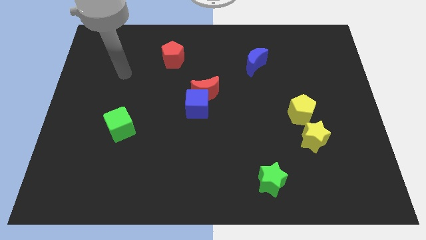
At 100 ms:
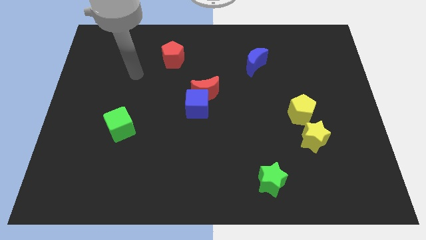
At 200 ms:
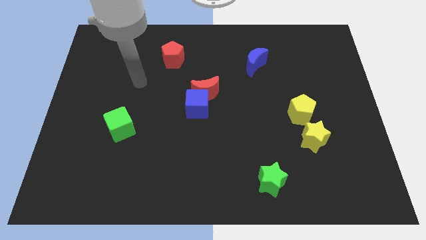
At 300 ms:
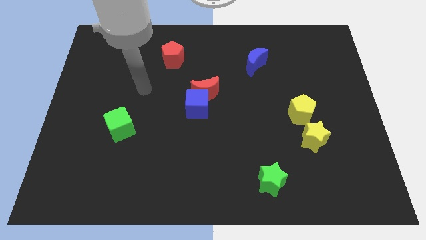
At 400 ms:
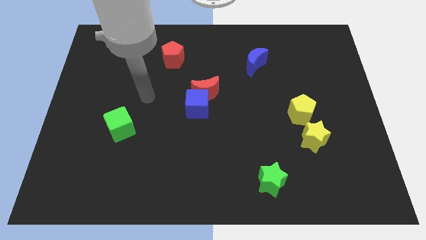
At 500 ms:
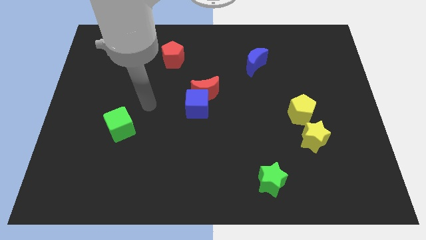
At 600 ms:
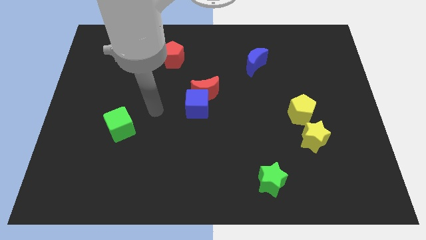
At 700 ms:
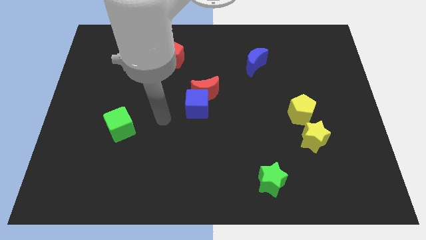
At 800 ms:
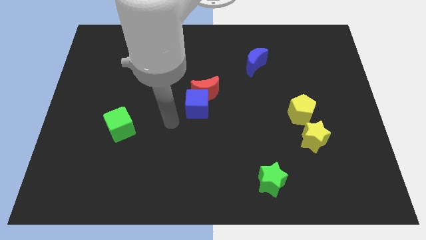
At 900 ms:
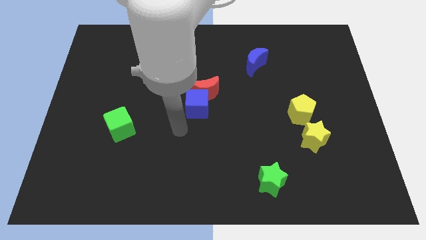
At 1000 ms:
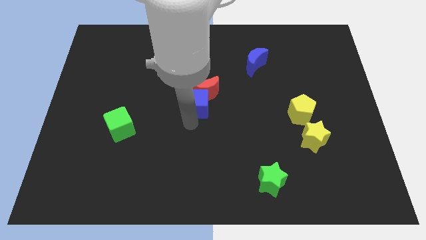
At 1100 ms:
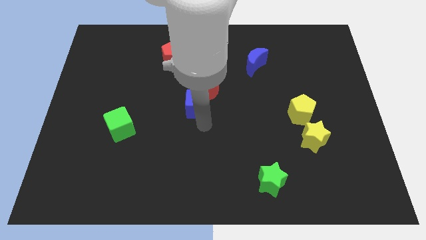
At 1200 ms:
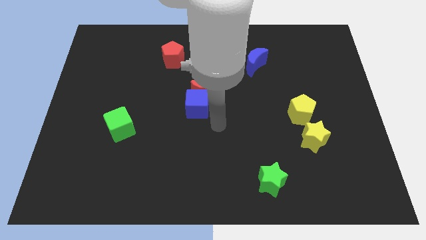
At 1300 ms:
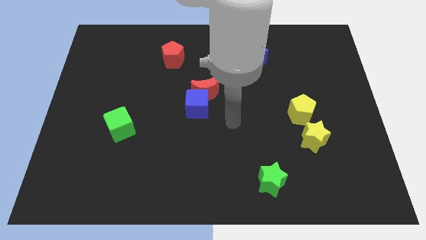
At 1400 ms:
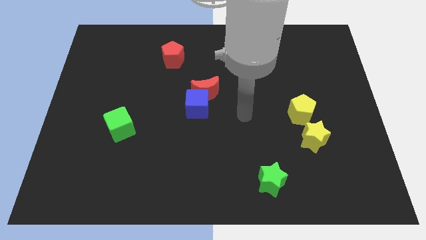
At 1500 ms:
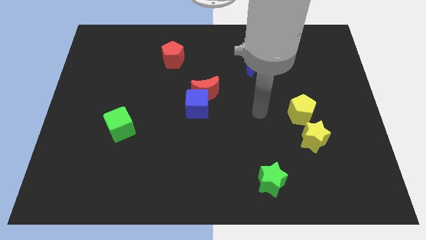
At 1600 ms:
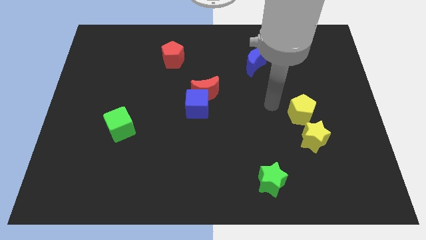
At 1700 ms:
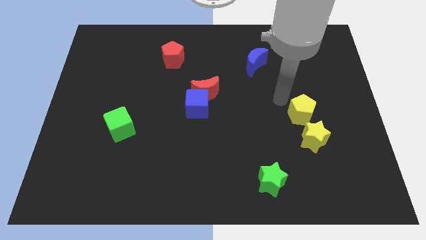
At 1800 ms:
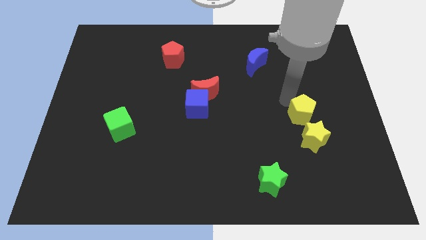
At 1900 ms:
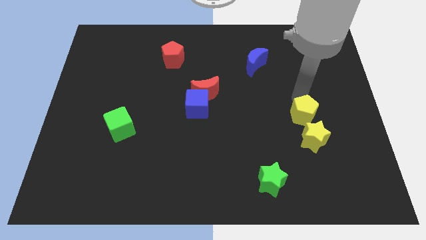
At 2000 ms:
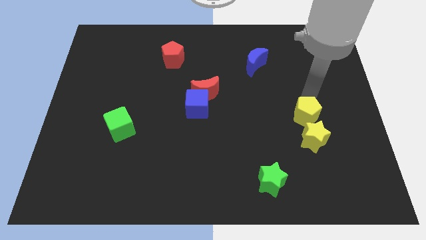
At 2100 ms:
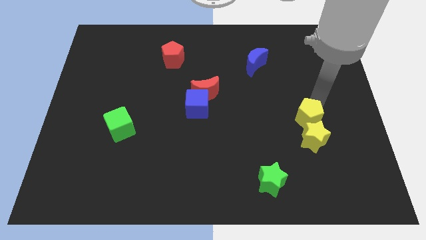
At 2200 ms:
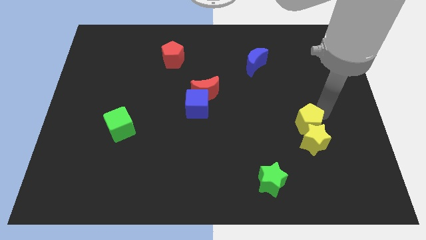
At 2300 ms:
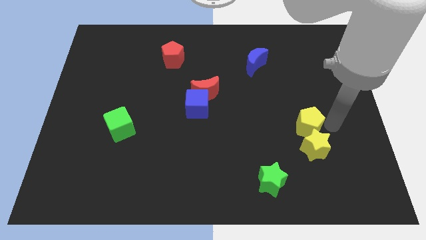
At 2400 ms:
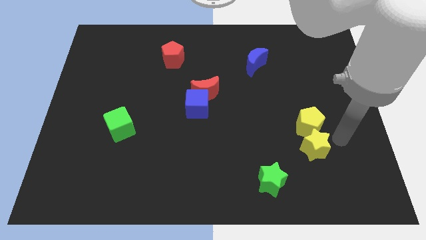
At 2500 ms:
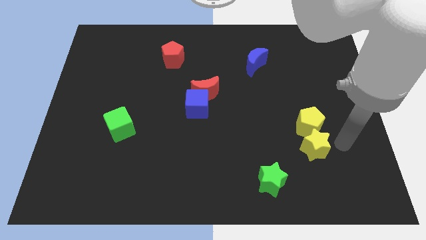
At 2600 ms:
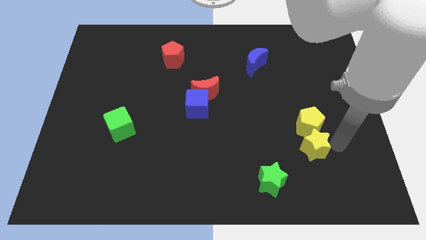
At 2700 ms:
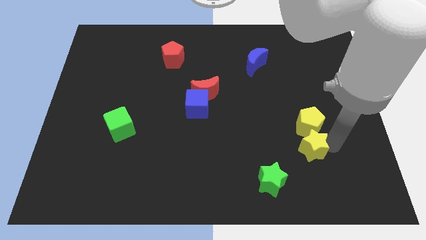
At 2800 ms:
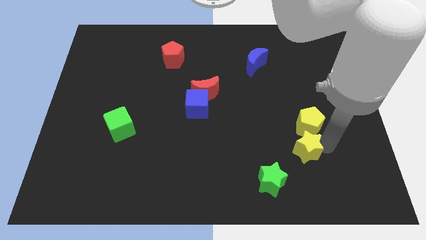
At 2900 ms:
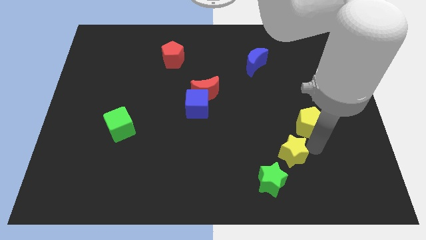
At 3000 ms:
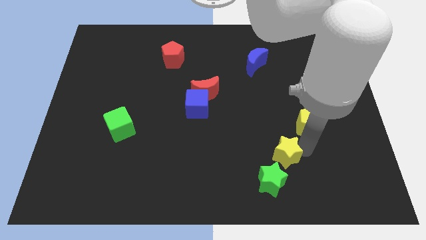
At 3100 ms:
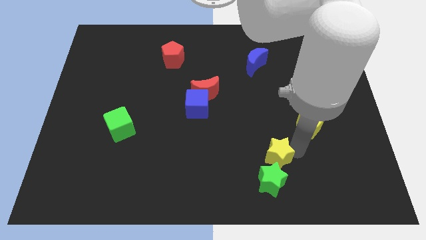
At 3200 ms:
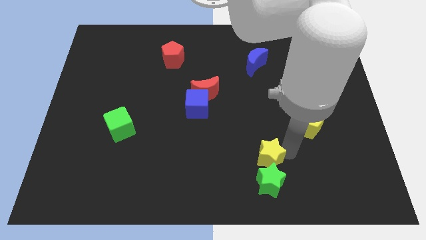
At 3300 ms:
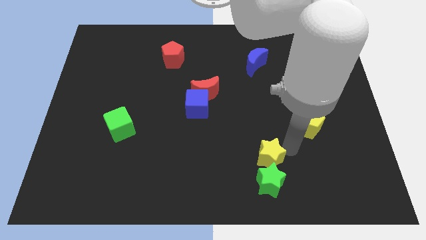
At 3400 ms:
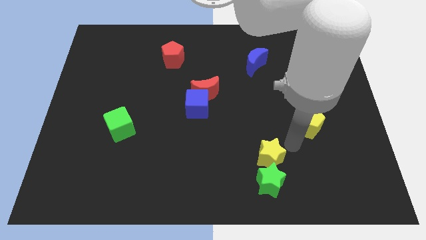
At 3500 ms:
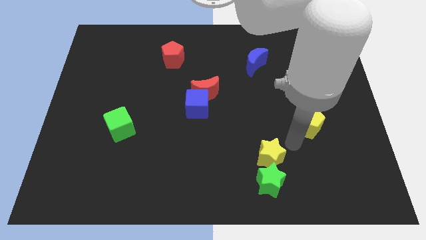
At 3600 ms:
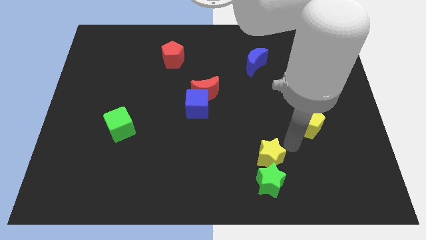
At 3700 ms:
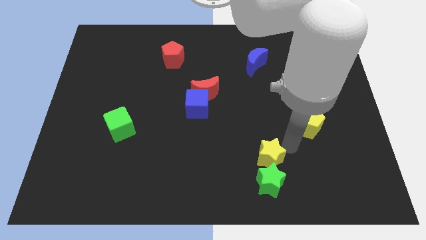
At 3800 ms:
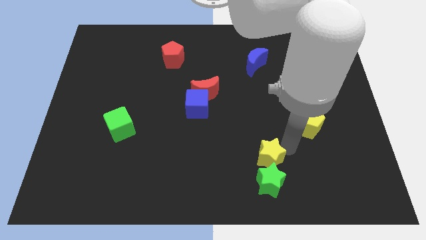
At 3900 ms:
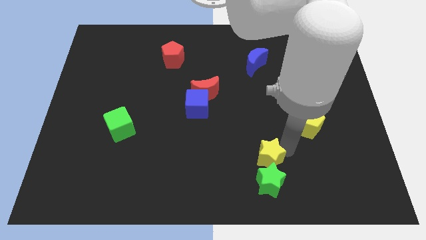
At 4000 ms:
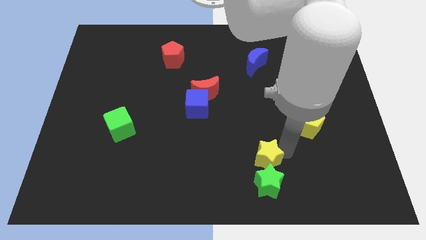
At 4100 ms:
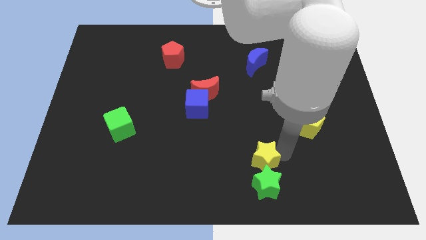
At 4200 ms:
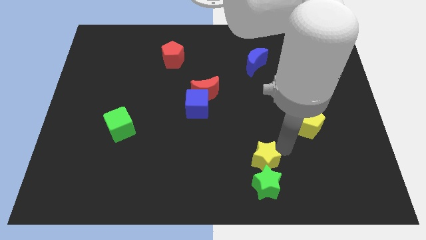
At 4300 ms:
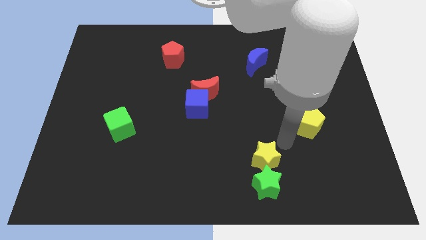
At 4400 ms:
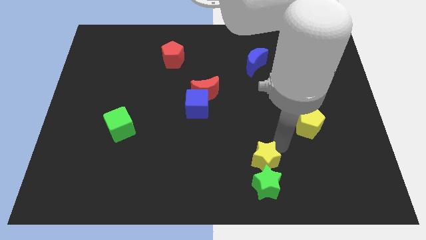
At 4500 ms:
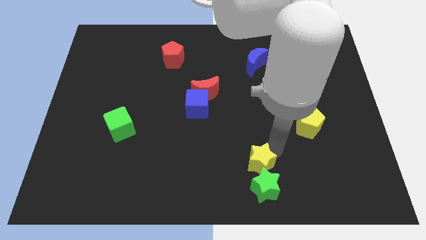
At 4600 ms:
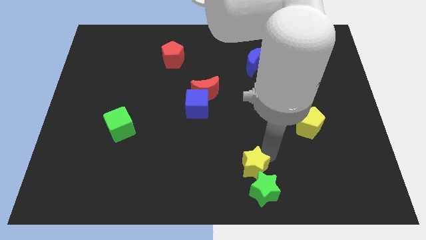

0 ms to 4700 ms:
move the yellow star to the bottom

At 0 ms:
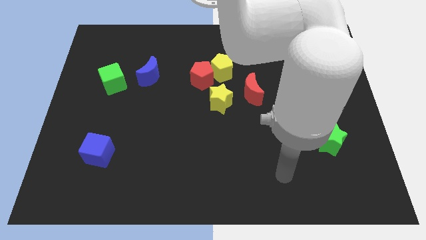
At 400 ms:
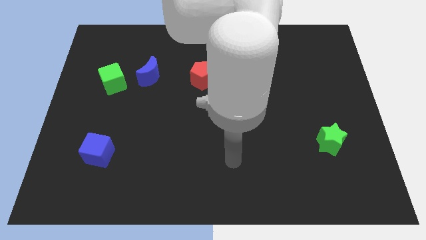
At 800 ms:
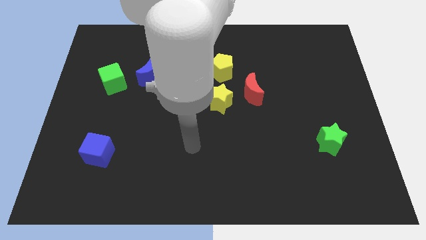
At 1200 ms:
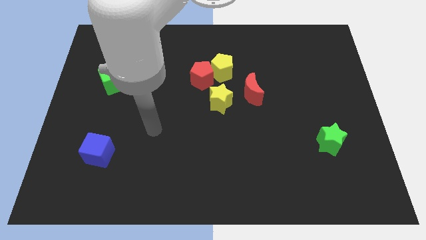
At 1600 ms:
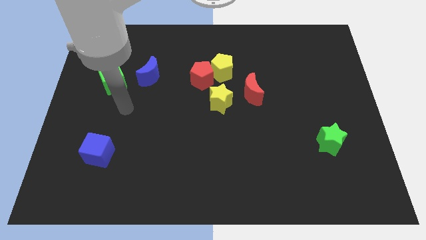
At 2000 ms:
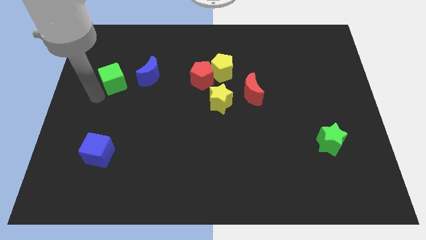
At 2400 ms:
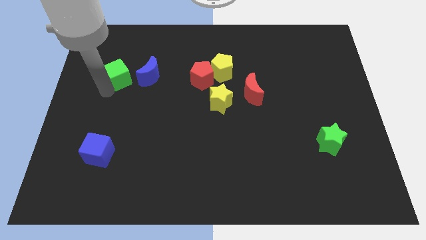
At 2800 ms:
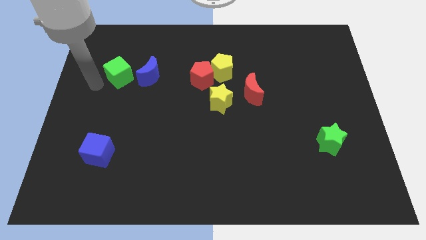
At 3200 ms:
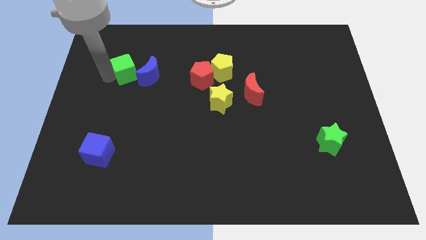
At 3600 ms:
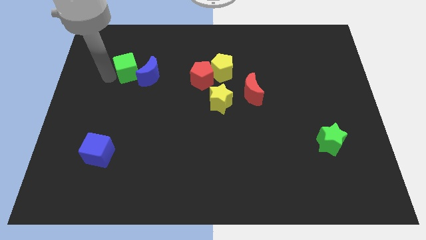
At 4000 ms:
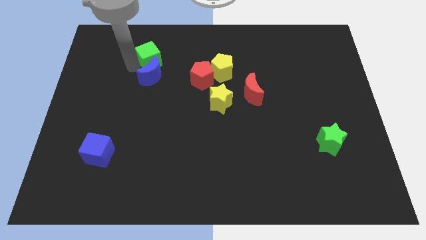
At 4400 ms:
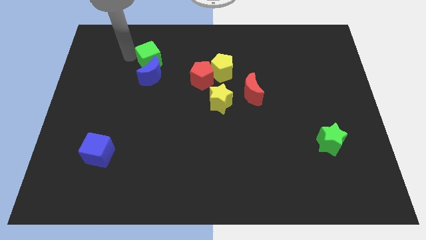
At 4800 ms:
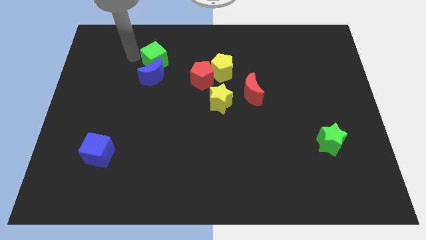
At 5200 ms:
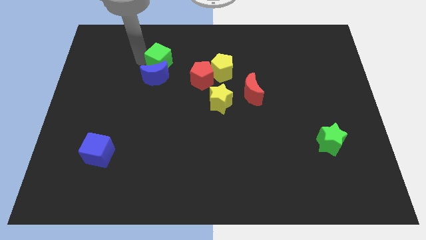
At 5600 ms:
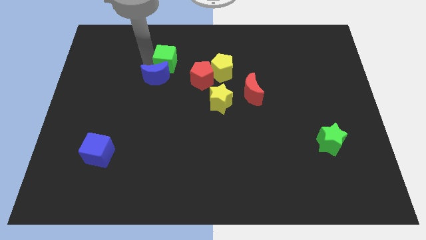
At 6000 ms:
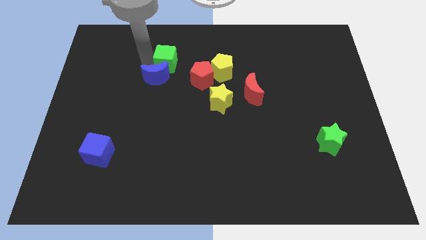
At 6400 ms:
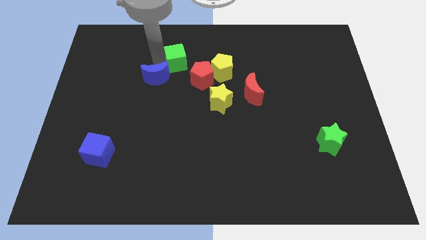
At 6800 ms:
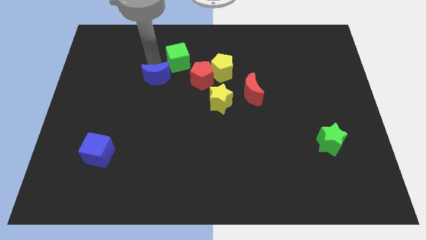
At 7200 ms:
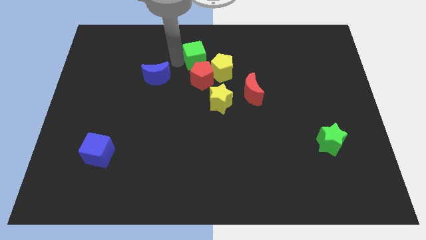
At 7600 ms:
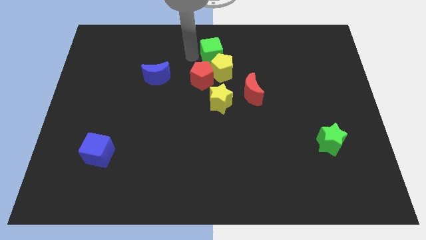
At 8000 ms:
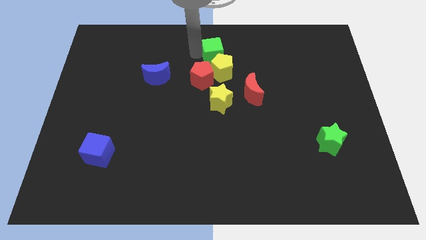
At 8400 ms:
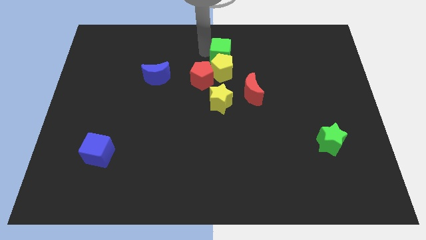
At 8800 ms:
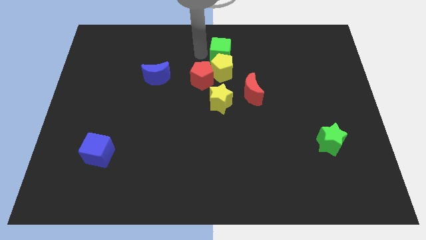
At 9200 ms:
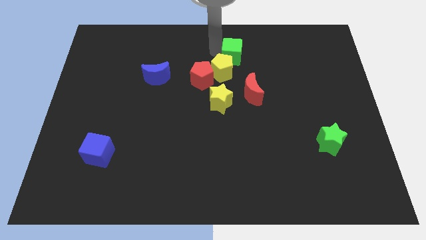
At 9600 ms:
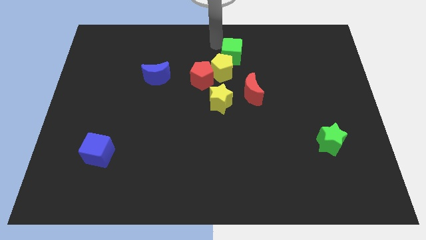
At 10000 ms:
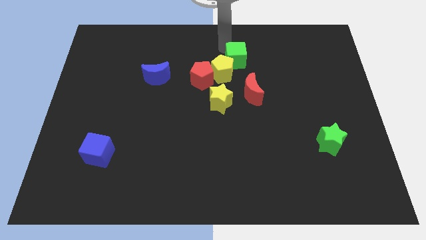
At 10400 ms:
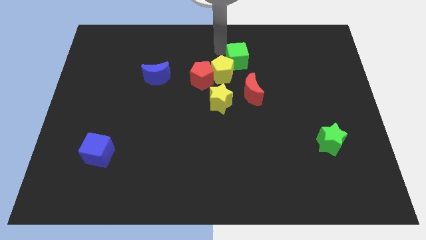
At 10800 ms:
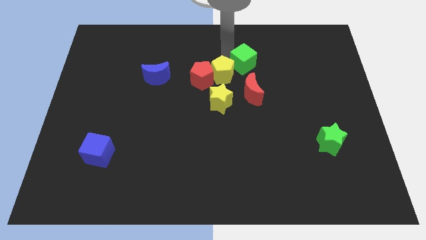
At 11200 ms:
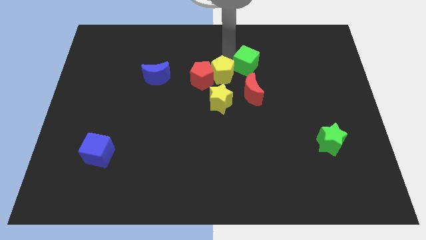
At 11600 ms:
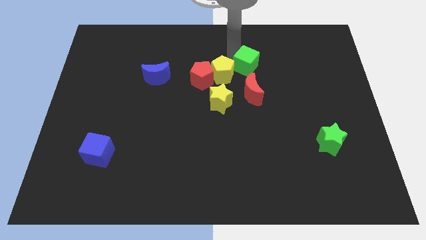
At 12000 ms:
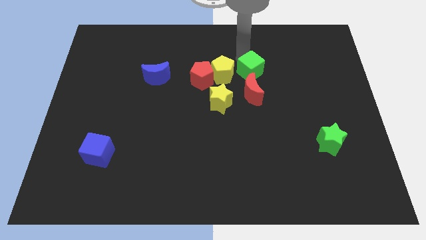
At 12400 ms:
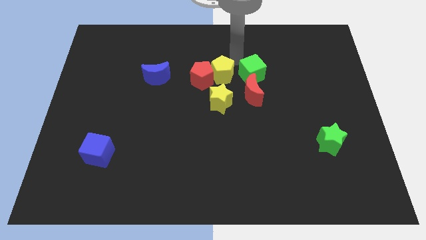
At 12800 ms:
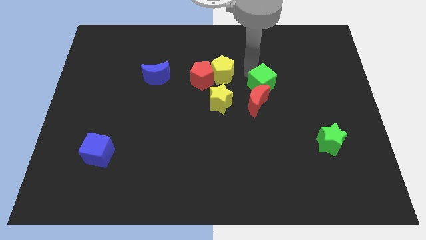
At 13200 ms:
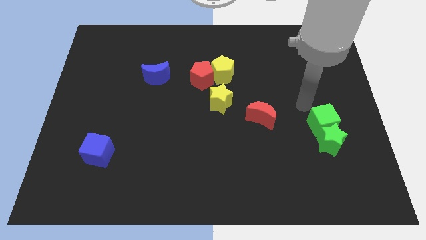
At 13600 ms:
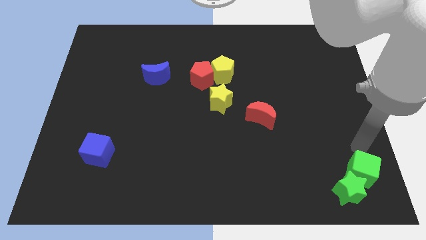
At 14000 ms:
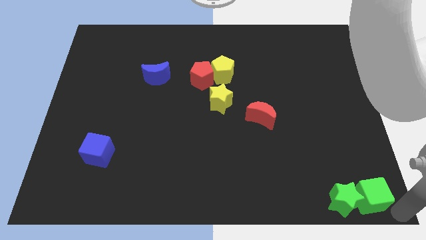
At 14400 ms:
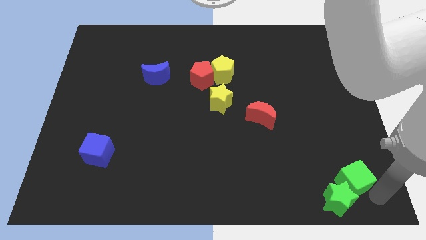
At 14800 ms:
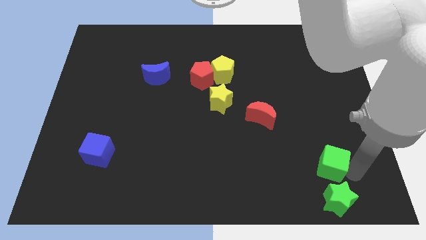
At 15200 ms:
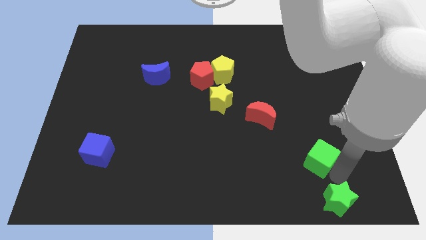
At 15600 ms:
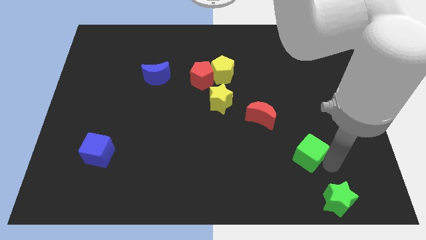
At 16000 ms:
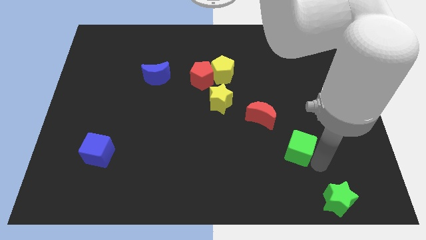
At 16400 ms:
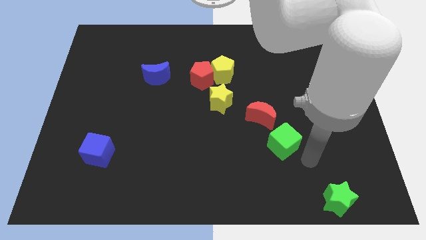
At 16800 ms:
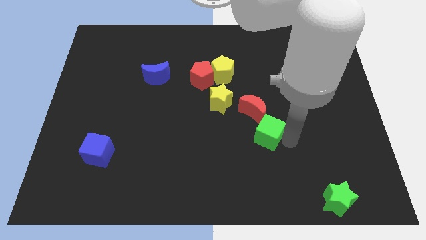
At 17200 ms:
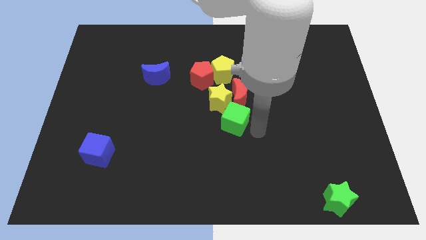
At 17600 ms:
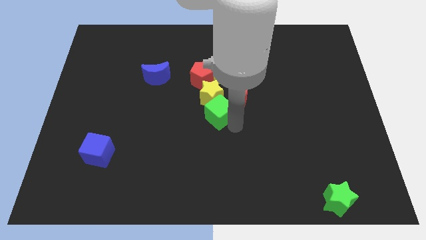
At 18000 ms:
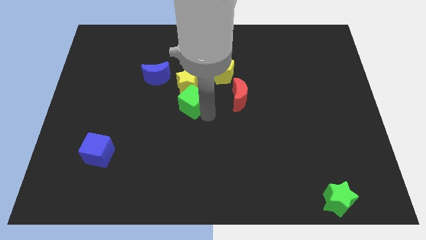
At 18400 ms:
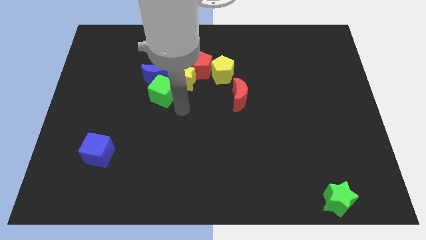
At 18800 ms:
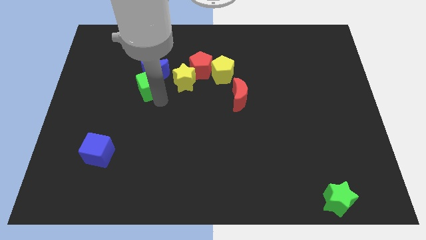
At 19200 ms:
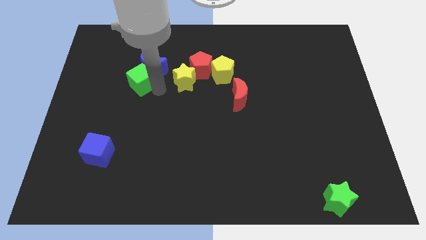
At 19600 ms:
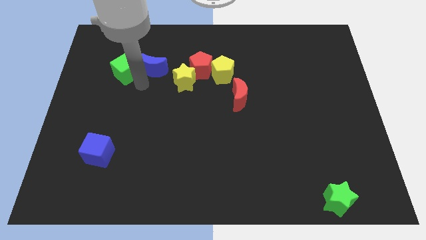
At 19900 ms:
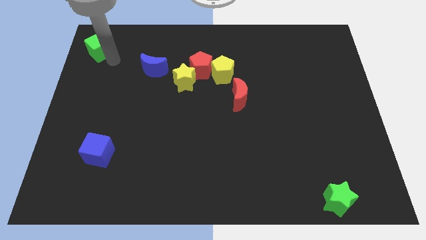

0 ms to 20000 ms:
slide the green cube to the top left
